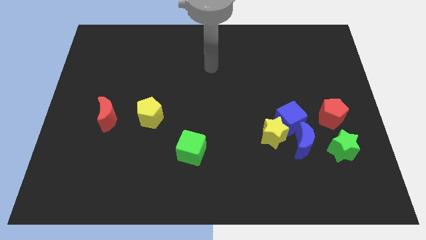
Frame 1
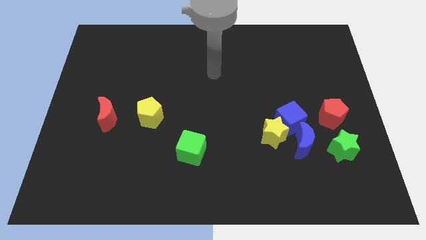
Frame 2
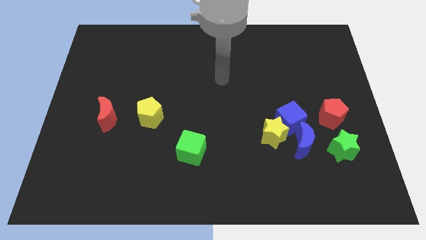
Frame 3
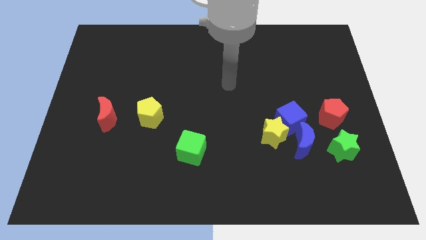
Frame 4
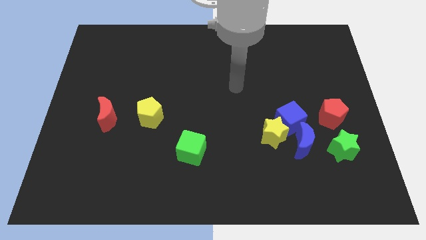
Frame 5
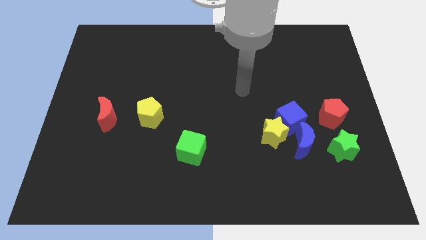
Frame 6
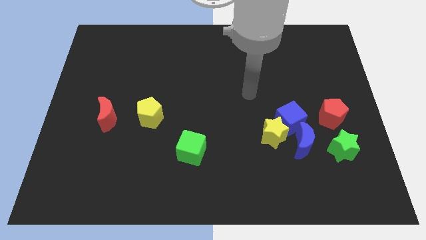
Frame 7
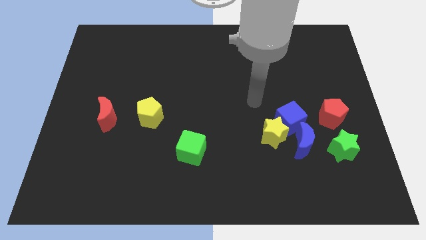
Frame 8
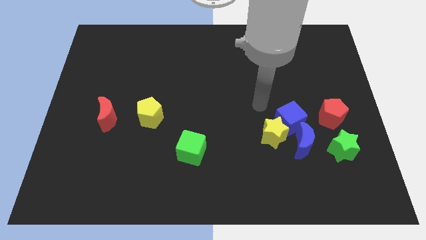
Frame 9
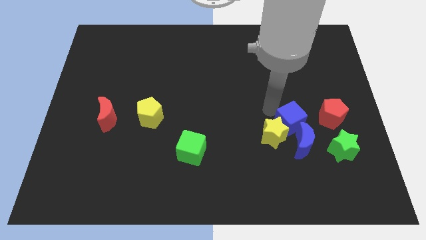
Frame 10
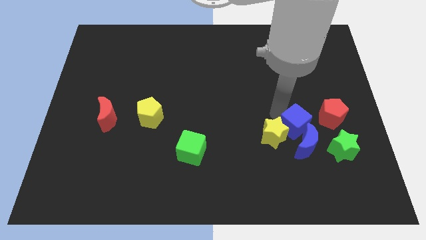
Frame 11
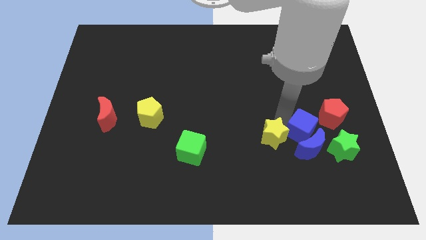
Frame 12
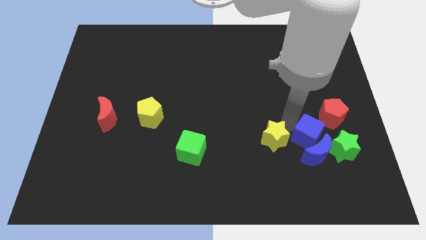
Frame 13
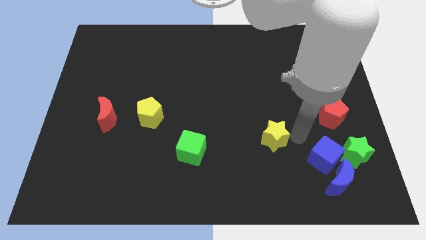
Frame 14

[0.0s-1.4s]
move the yellow star away from the blue cube and blue moon

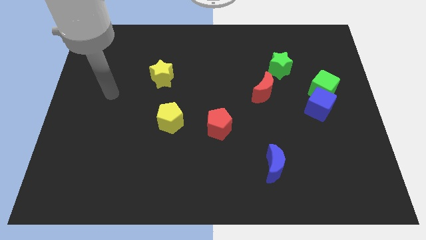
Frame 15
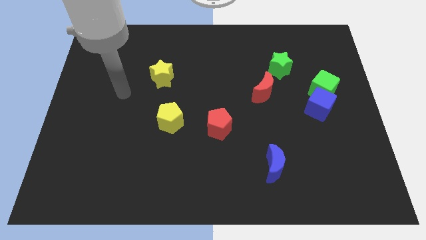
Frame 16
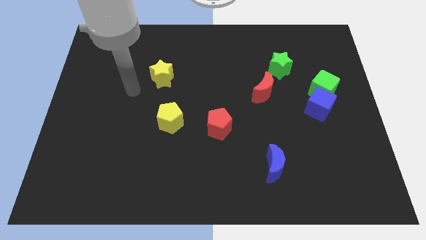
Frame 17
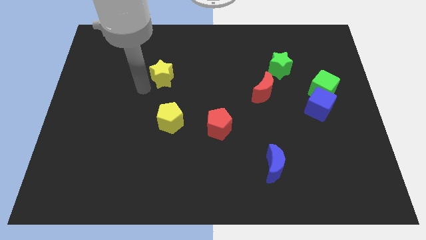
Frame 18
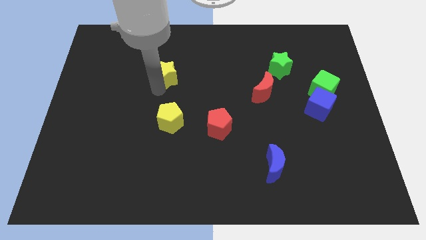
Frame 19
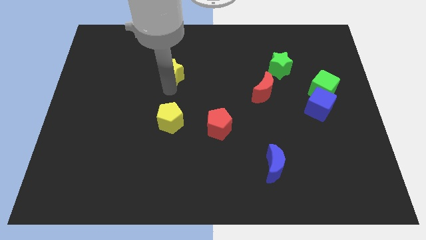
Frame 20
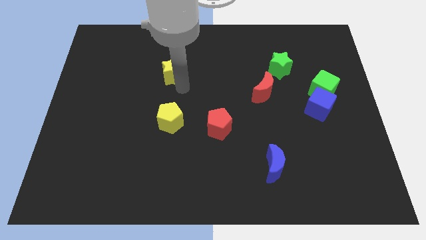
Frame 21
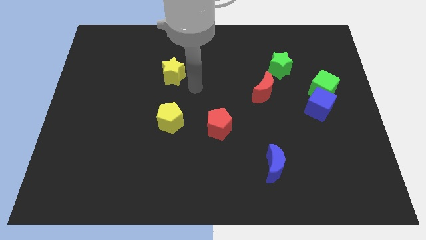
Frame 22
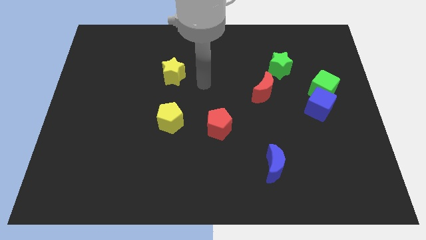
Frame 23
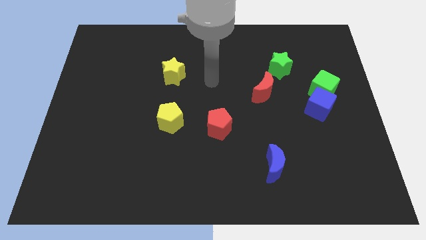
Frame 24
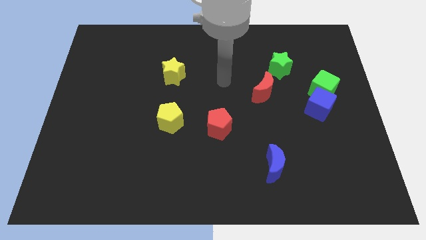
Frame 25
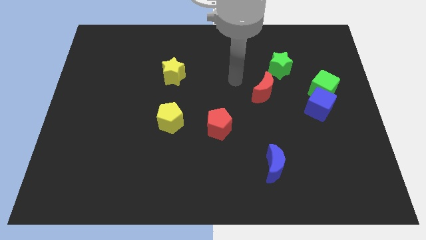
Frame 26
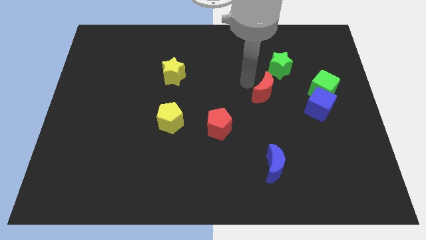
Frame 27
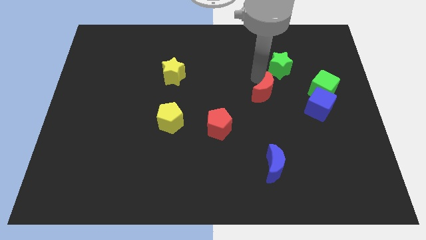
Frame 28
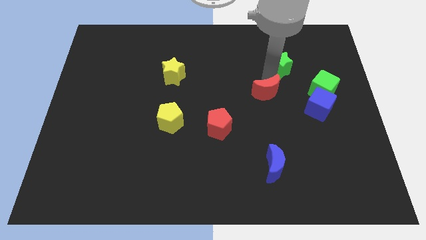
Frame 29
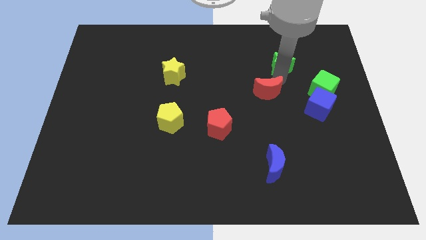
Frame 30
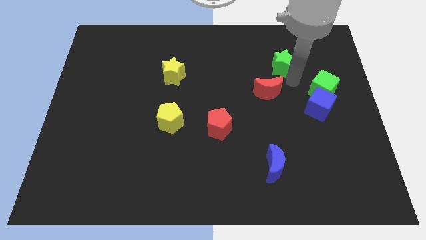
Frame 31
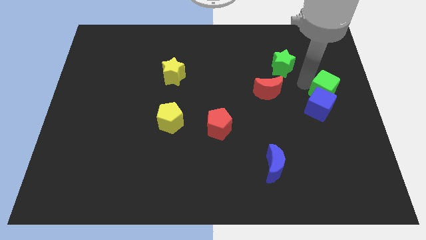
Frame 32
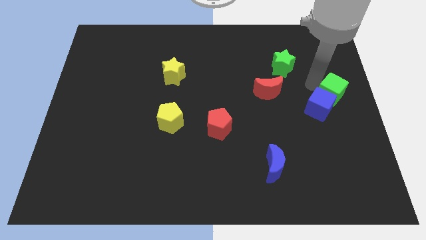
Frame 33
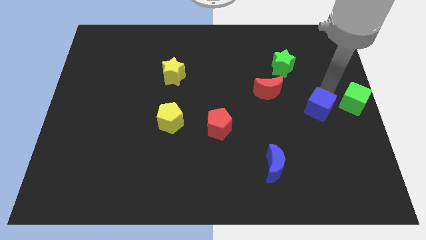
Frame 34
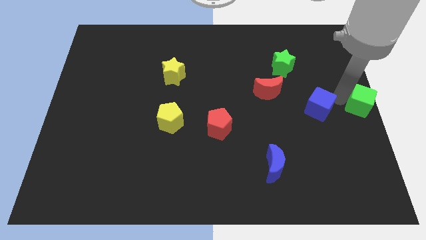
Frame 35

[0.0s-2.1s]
separate the blue cube from the green cube

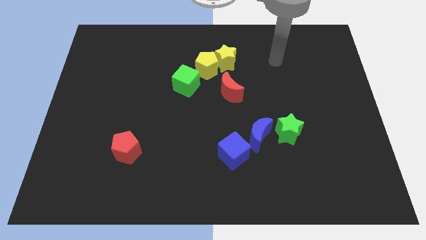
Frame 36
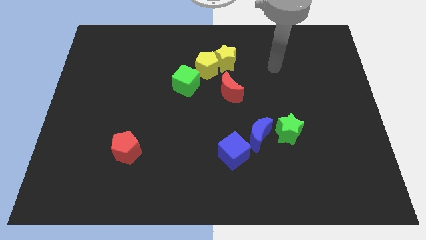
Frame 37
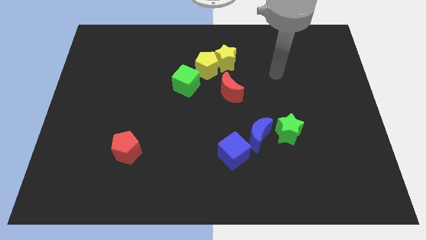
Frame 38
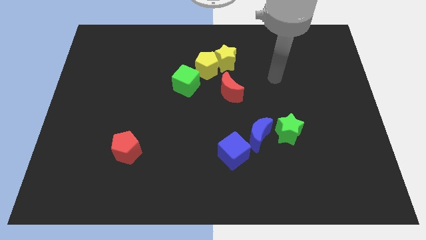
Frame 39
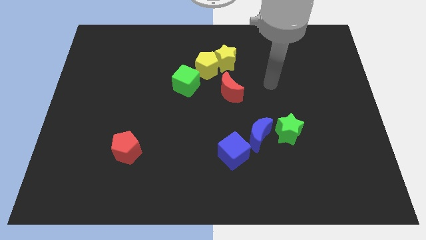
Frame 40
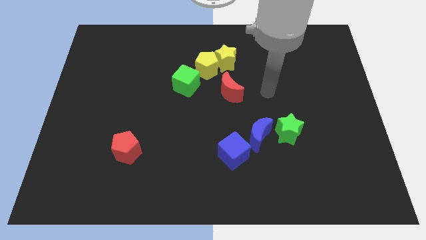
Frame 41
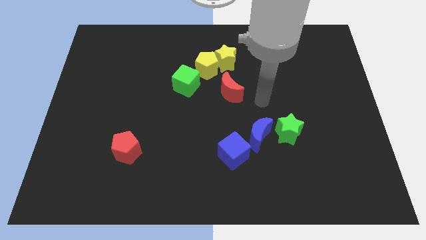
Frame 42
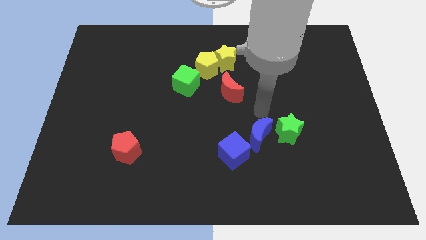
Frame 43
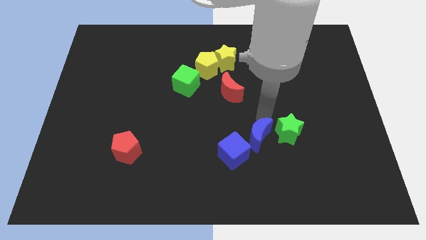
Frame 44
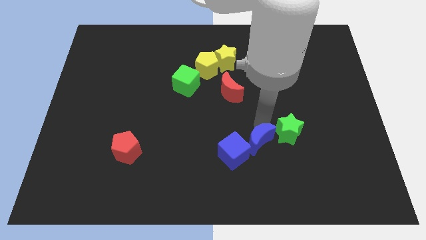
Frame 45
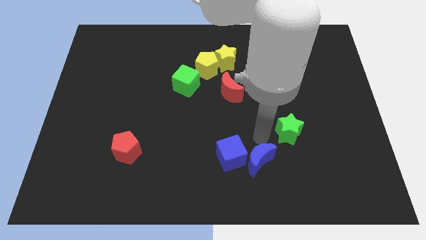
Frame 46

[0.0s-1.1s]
move the green star away from the blue moon

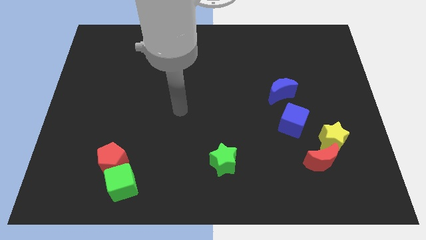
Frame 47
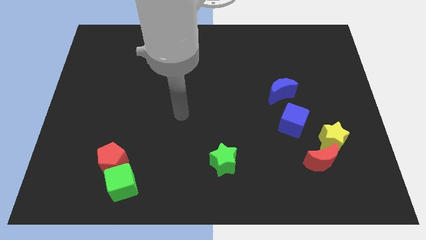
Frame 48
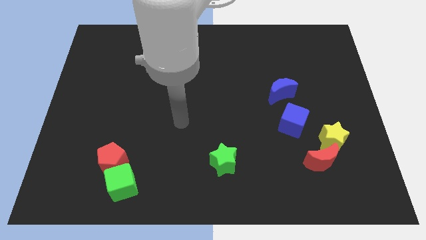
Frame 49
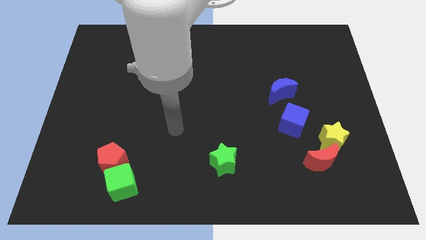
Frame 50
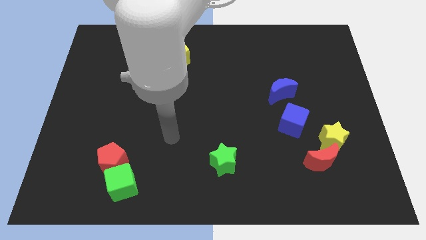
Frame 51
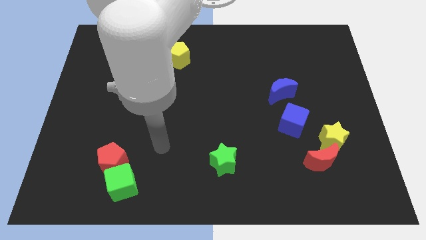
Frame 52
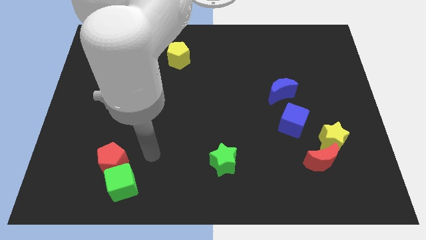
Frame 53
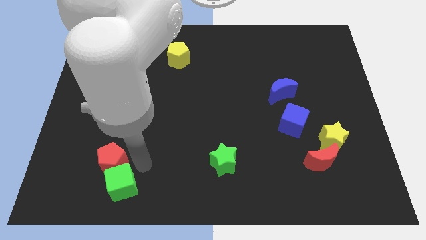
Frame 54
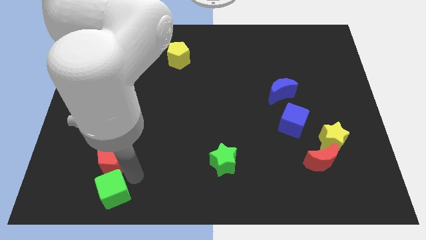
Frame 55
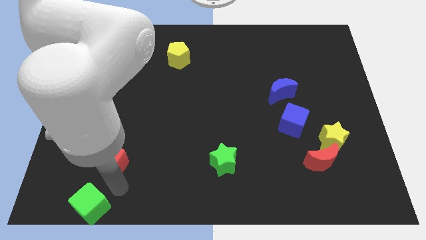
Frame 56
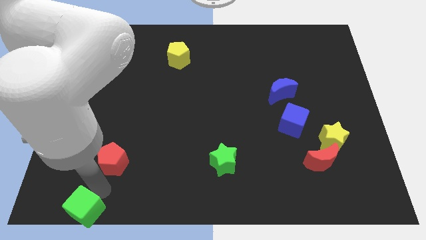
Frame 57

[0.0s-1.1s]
separate the red pentagon from the green cube

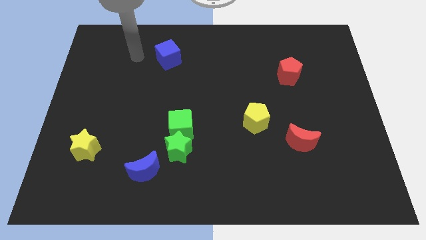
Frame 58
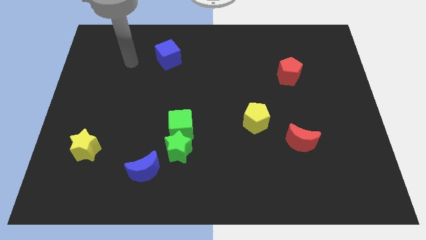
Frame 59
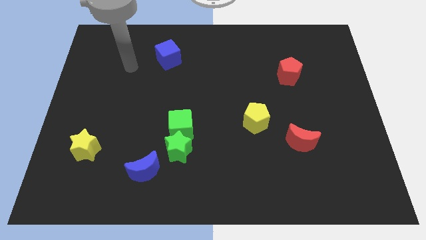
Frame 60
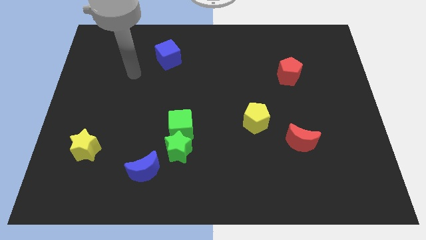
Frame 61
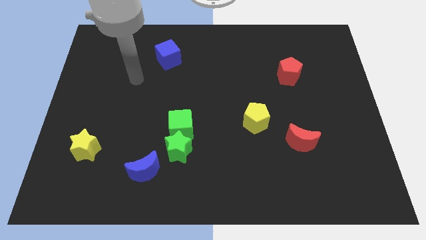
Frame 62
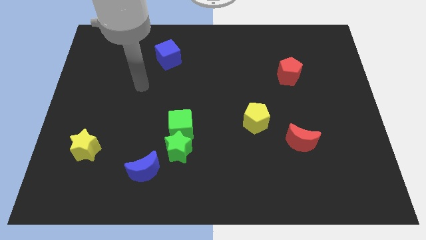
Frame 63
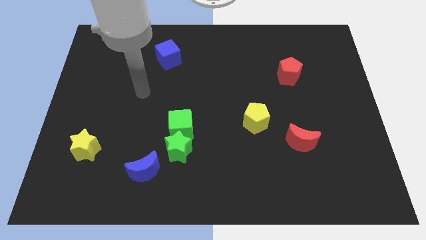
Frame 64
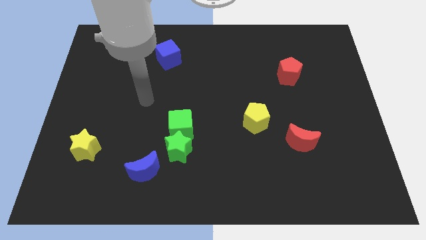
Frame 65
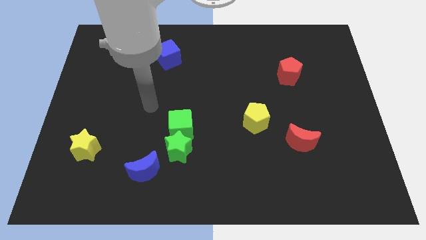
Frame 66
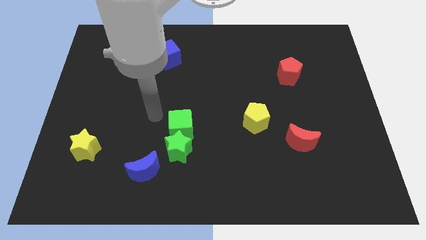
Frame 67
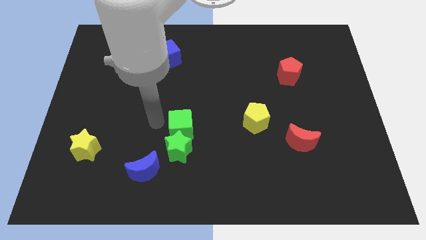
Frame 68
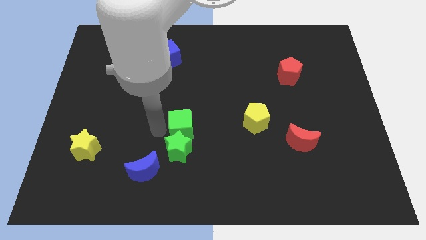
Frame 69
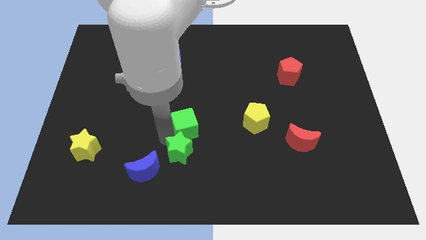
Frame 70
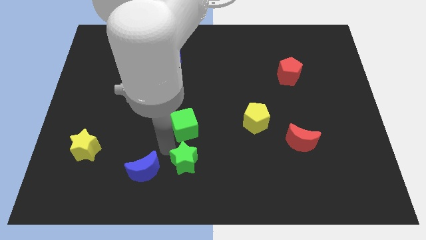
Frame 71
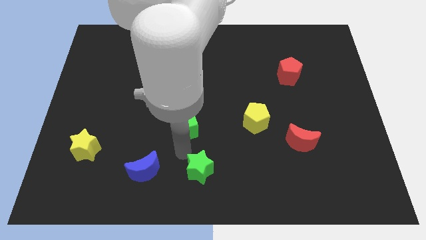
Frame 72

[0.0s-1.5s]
move the green cube away from the green star

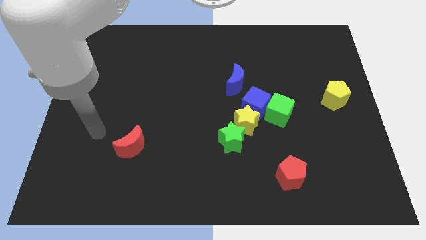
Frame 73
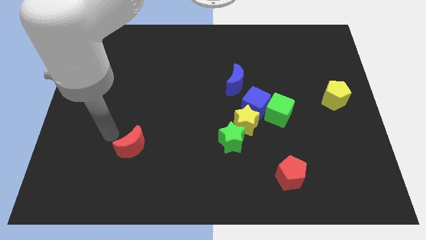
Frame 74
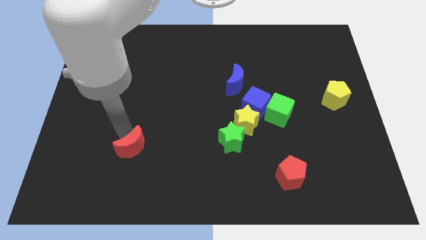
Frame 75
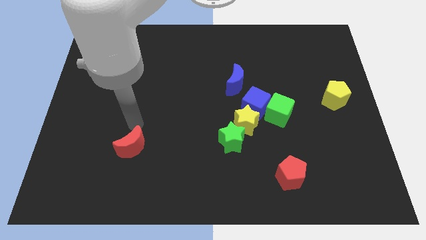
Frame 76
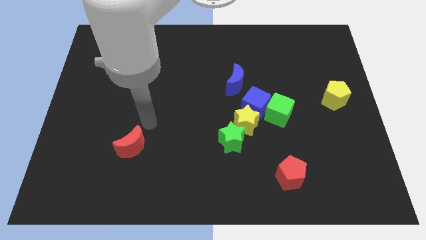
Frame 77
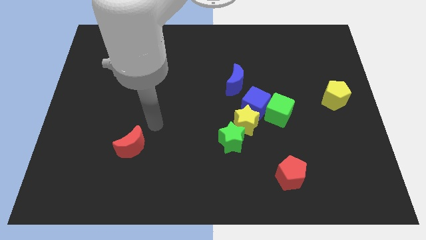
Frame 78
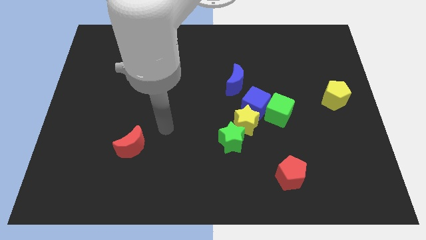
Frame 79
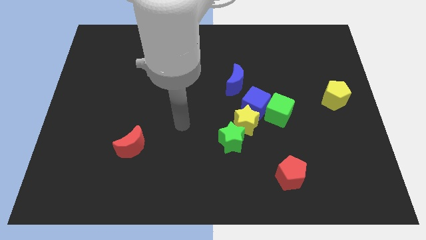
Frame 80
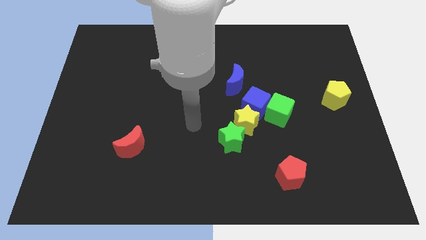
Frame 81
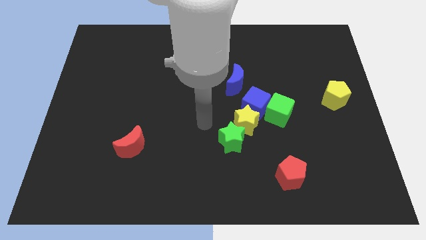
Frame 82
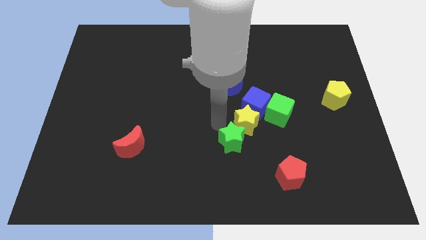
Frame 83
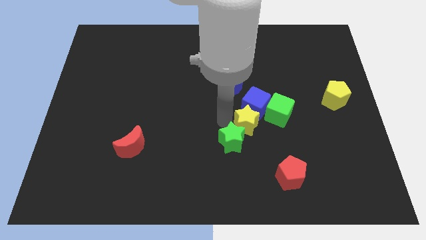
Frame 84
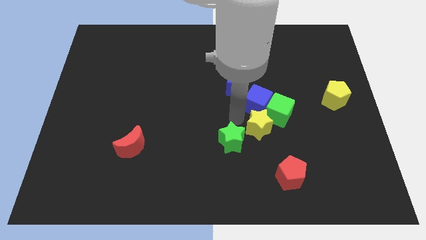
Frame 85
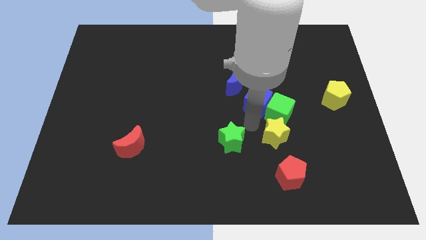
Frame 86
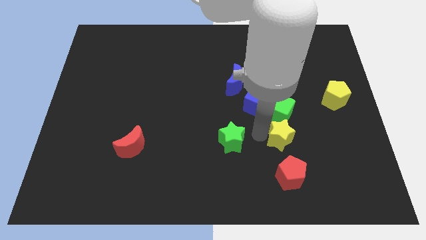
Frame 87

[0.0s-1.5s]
separate the green star from the yellow star

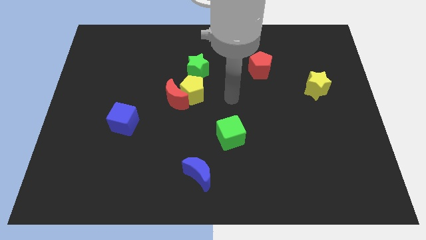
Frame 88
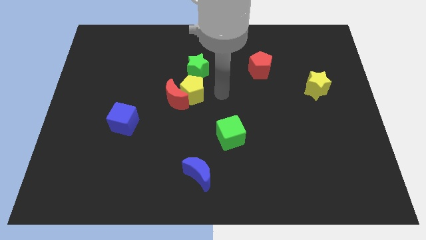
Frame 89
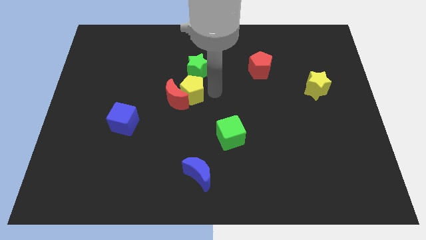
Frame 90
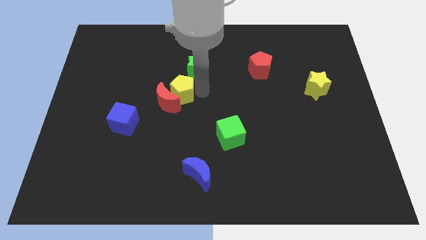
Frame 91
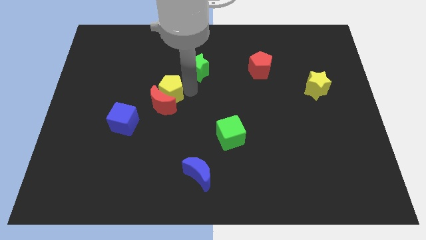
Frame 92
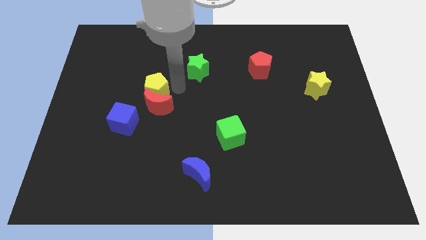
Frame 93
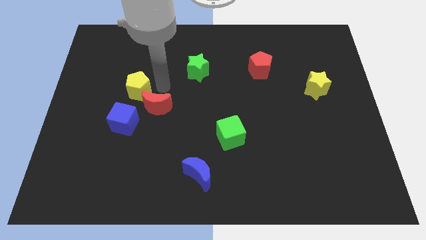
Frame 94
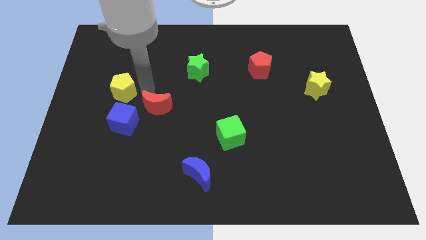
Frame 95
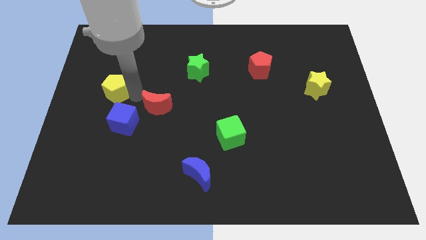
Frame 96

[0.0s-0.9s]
move the red moon away from the yellow pentagon
